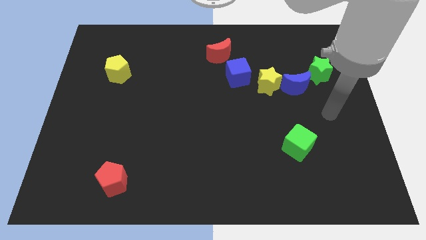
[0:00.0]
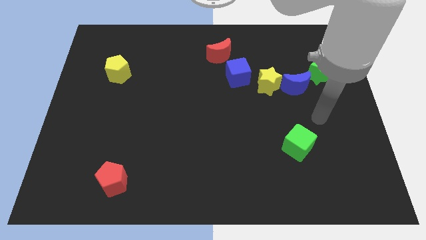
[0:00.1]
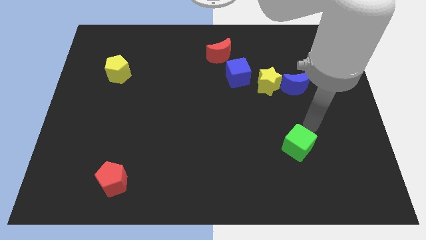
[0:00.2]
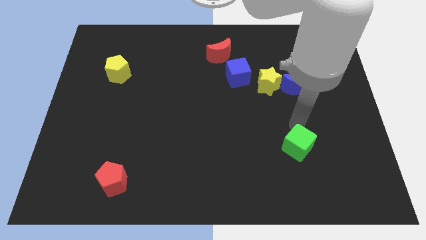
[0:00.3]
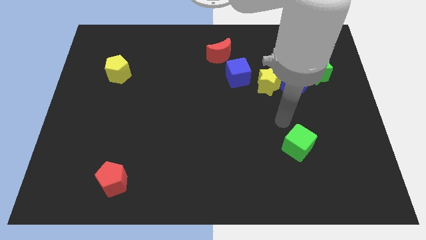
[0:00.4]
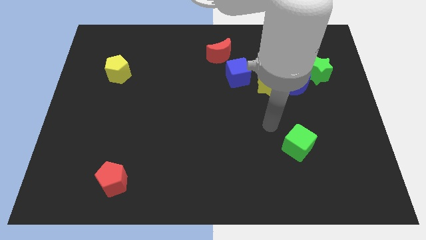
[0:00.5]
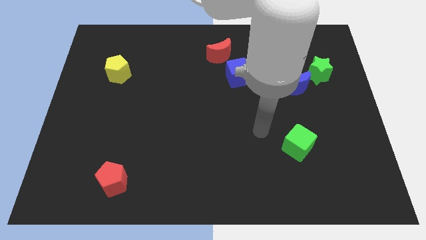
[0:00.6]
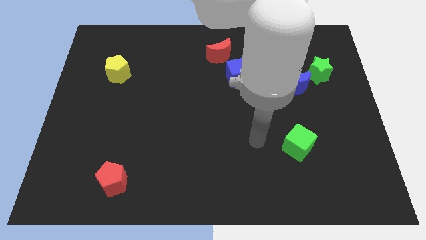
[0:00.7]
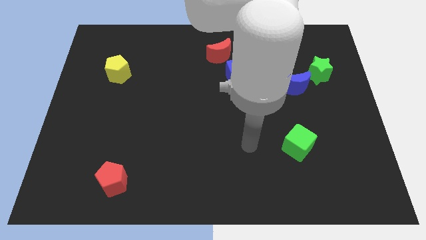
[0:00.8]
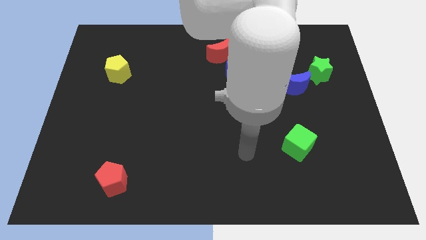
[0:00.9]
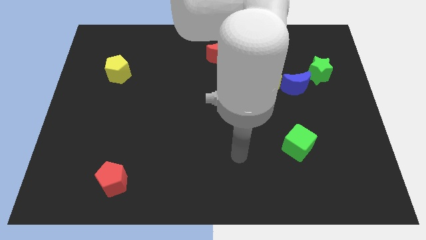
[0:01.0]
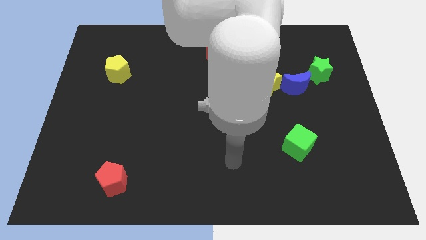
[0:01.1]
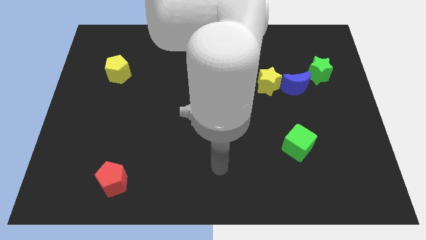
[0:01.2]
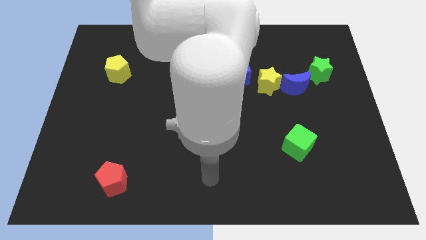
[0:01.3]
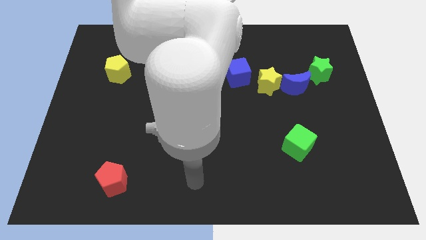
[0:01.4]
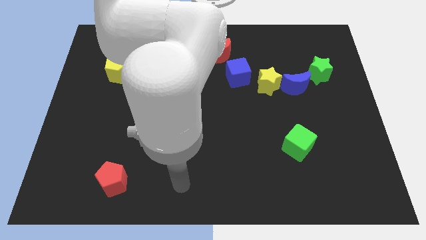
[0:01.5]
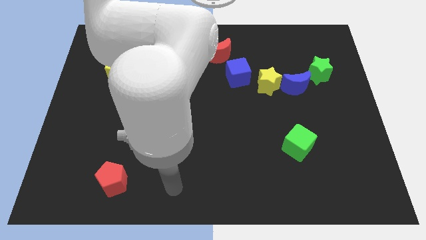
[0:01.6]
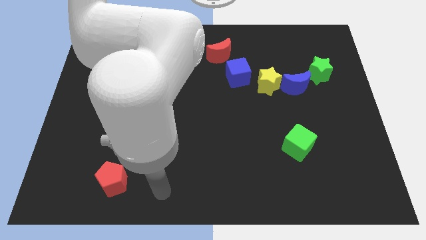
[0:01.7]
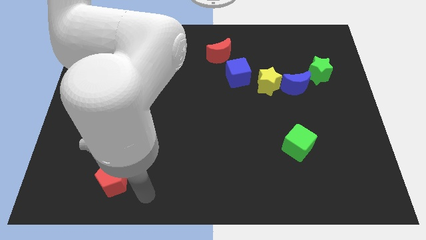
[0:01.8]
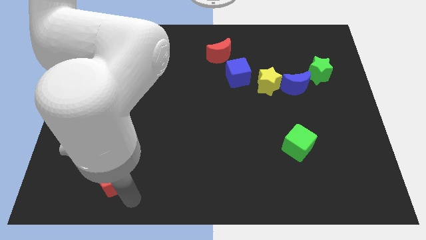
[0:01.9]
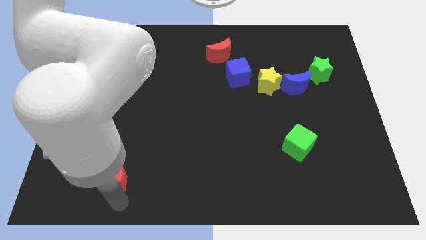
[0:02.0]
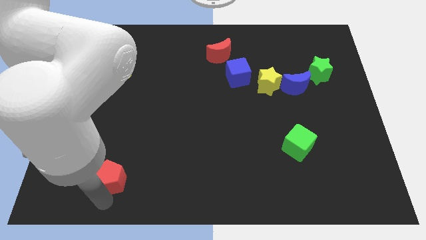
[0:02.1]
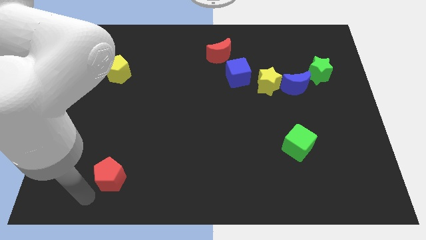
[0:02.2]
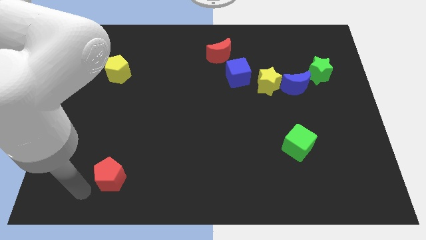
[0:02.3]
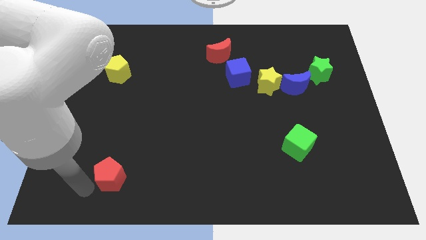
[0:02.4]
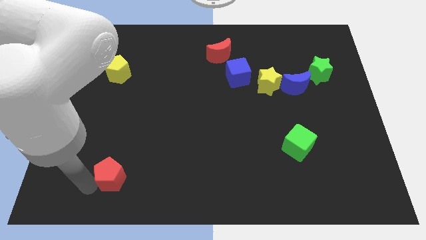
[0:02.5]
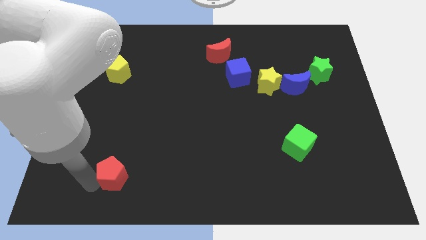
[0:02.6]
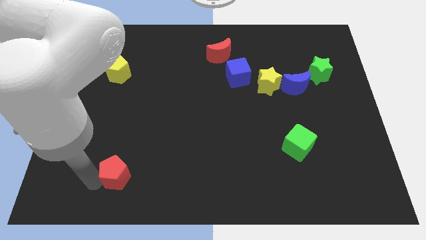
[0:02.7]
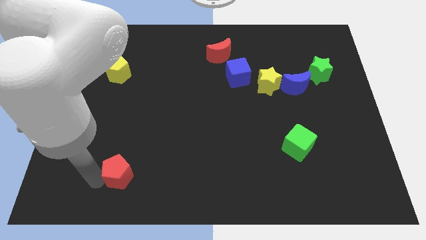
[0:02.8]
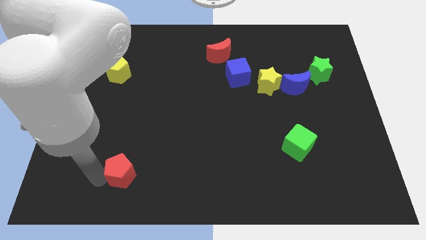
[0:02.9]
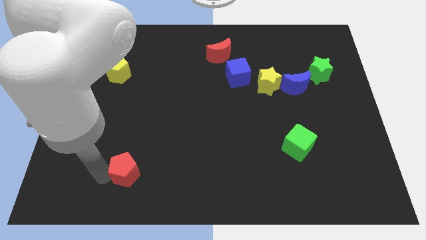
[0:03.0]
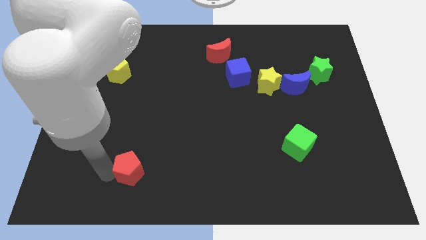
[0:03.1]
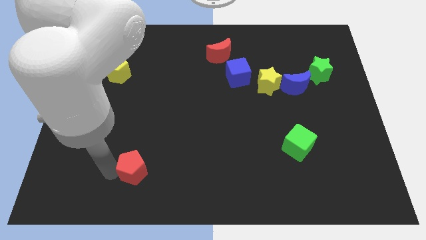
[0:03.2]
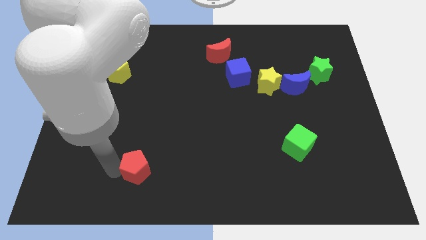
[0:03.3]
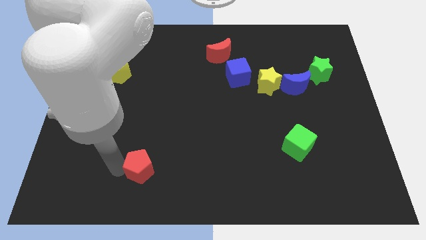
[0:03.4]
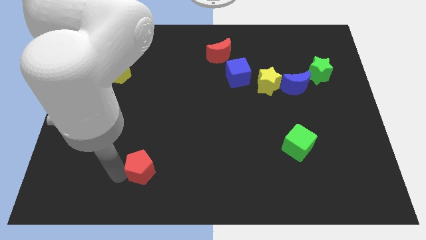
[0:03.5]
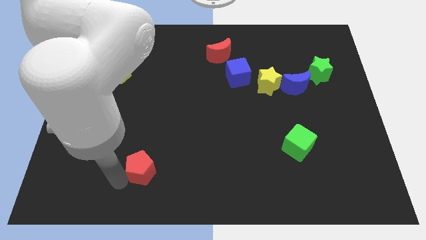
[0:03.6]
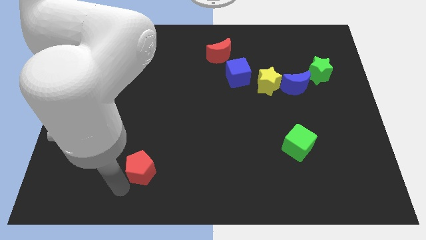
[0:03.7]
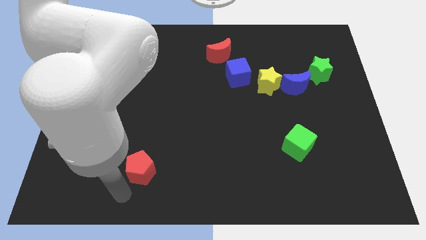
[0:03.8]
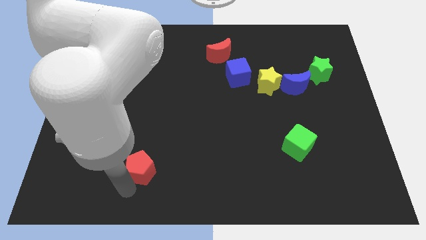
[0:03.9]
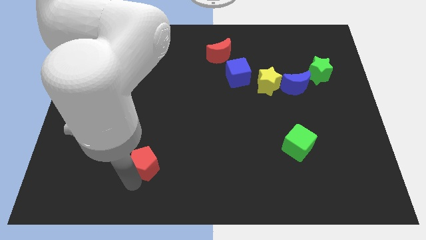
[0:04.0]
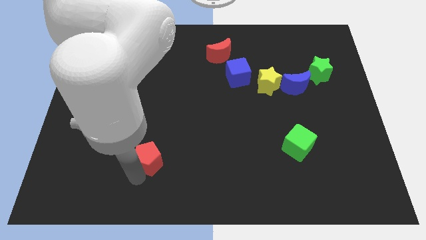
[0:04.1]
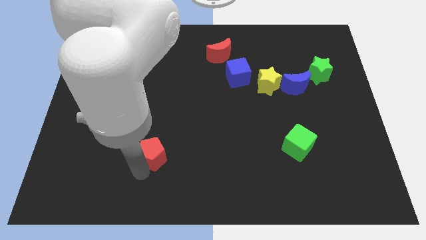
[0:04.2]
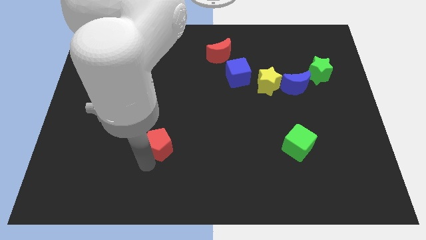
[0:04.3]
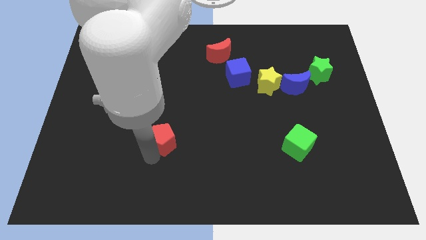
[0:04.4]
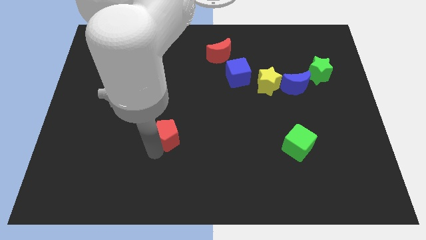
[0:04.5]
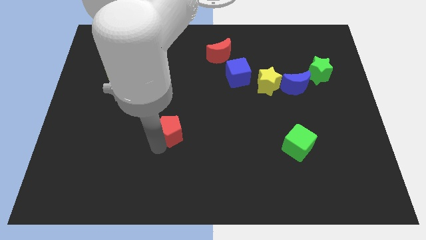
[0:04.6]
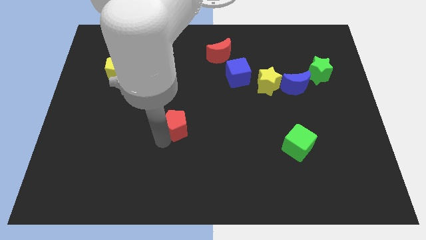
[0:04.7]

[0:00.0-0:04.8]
put the red pentagon to the middle of the board

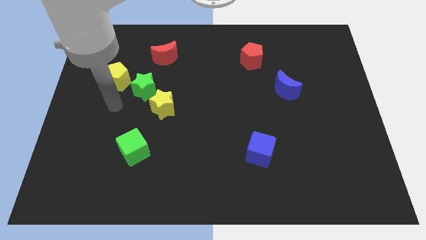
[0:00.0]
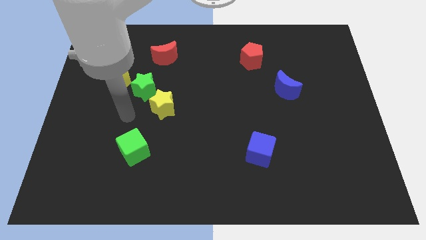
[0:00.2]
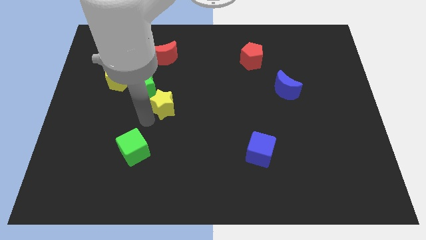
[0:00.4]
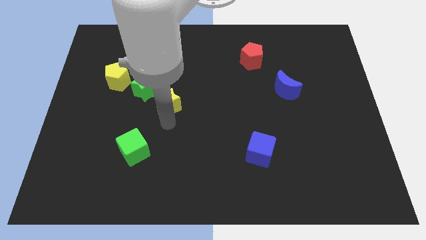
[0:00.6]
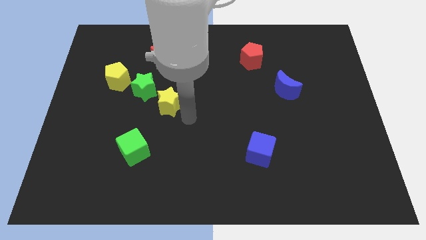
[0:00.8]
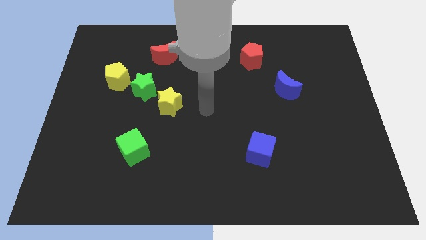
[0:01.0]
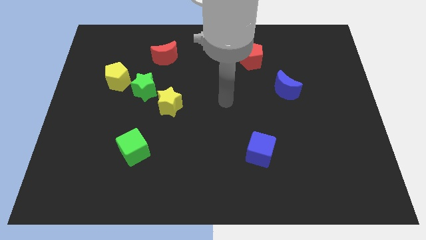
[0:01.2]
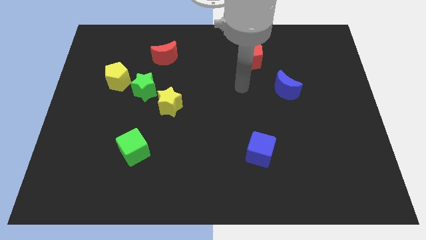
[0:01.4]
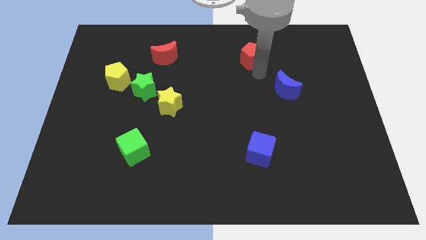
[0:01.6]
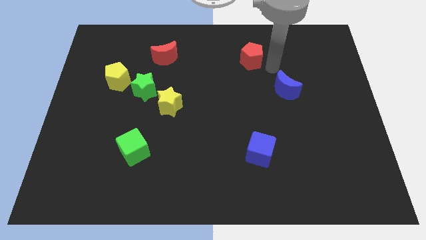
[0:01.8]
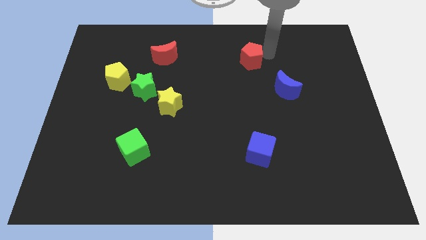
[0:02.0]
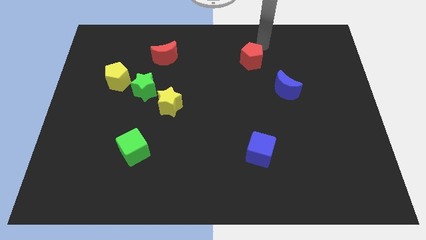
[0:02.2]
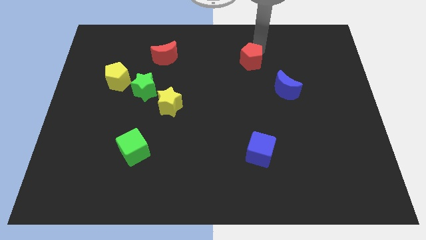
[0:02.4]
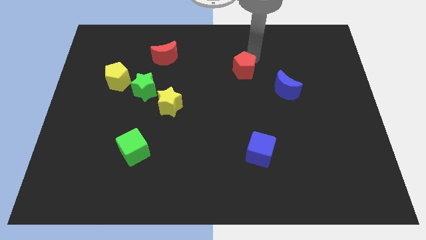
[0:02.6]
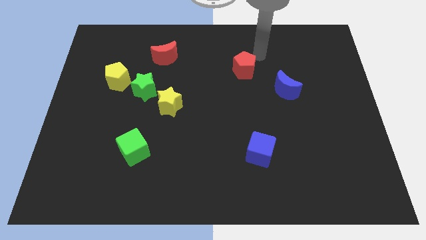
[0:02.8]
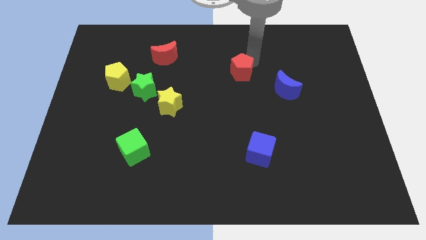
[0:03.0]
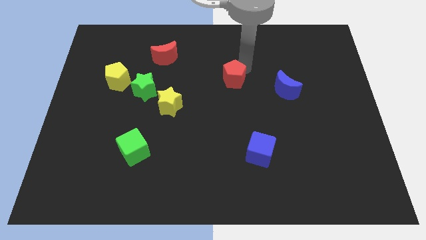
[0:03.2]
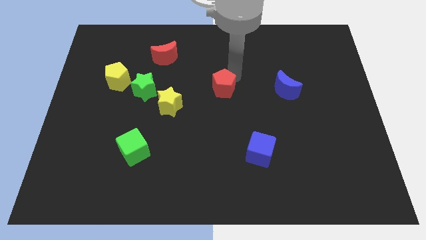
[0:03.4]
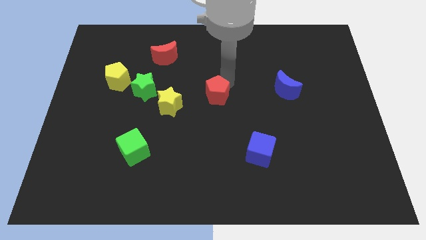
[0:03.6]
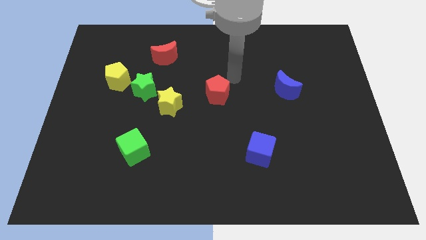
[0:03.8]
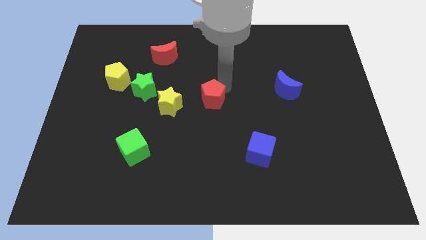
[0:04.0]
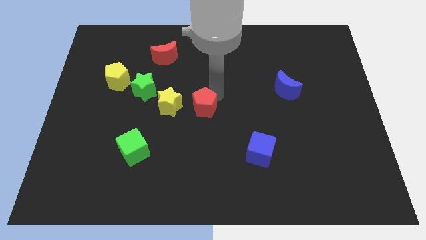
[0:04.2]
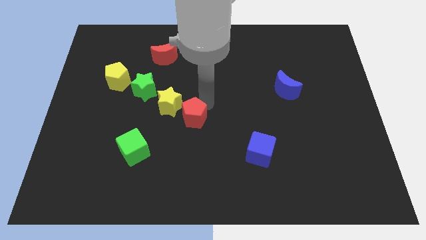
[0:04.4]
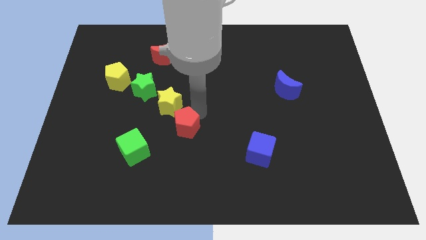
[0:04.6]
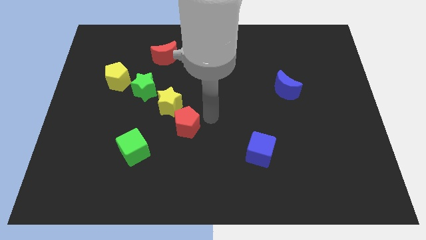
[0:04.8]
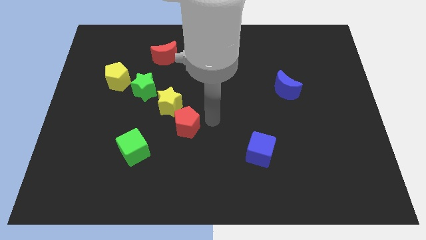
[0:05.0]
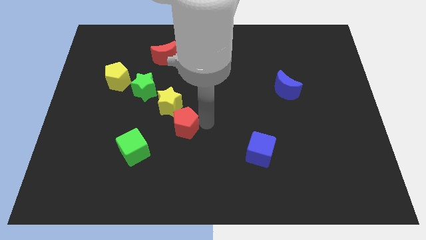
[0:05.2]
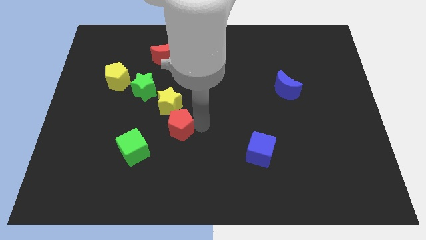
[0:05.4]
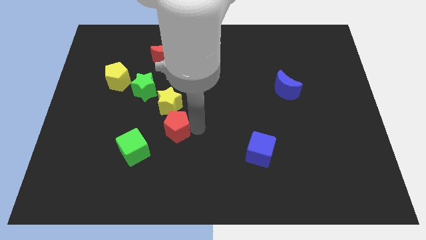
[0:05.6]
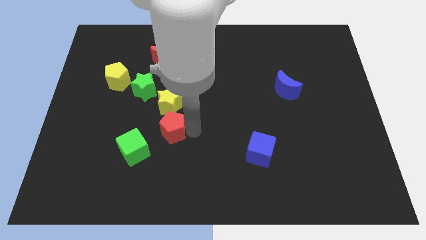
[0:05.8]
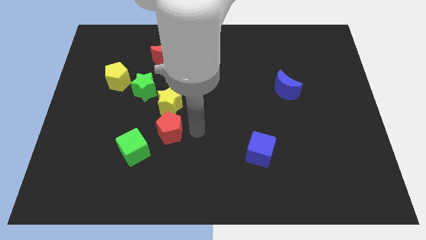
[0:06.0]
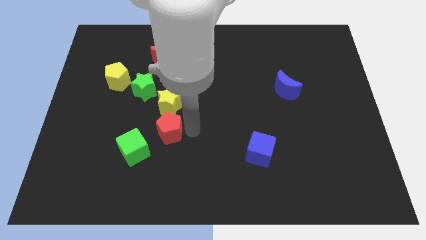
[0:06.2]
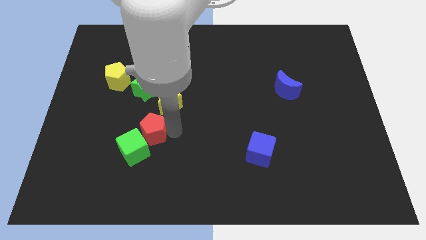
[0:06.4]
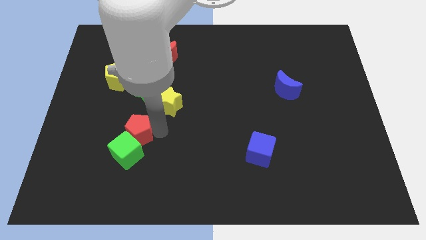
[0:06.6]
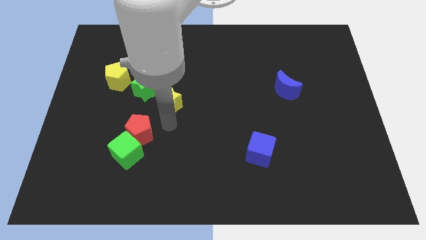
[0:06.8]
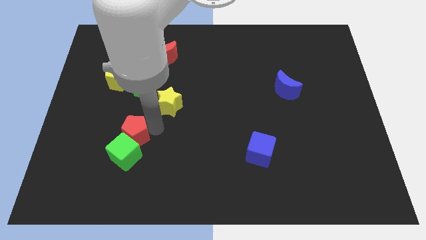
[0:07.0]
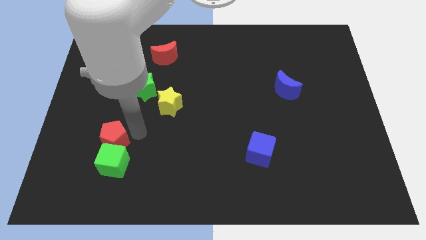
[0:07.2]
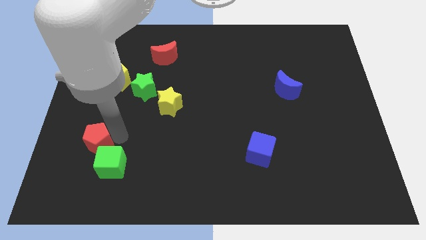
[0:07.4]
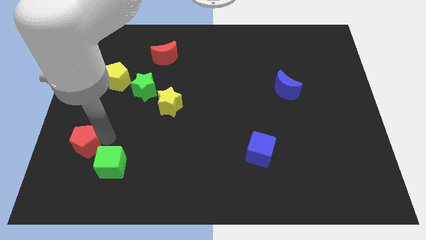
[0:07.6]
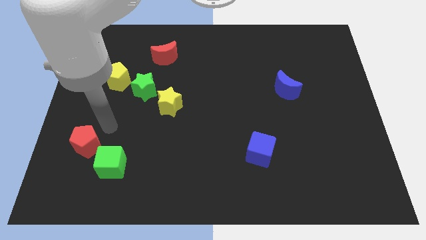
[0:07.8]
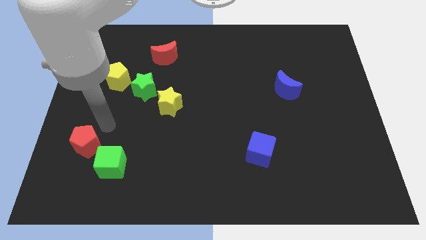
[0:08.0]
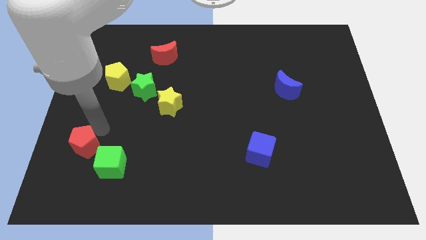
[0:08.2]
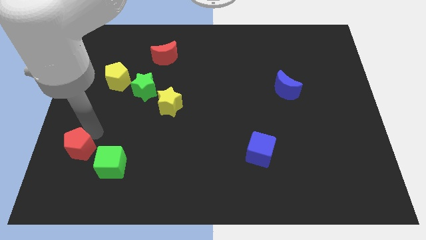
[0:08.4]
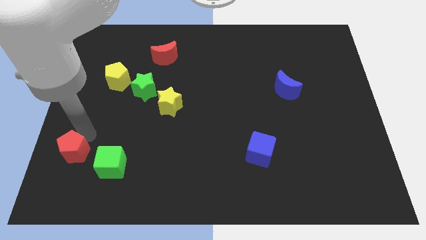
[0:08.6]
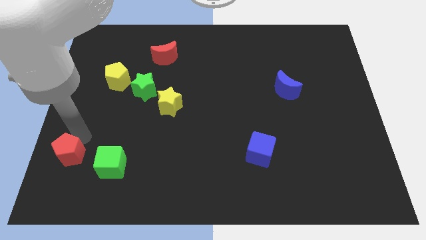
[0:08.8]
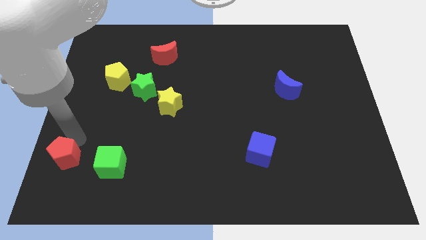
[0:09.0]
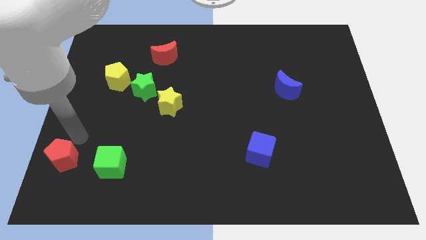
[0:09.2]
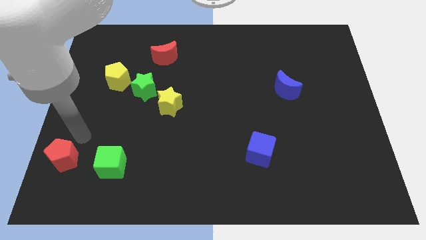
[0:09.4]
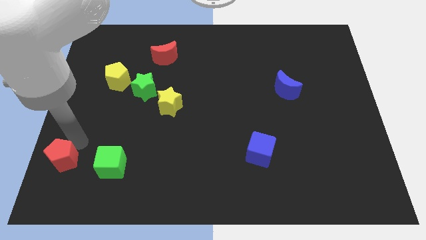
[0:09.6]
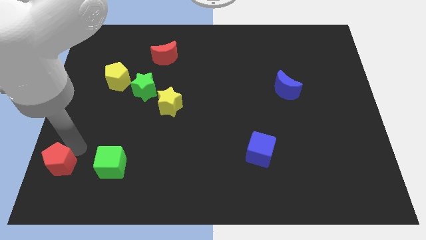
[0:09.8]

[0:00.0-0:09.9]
move the red pentagon to the bottom left
